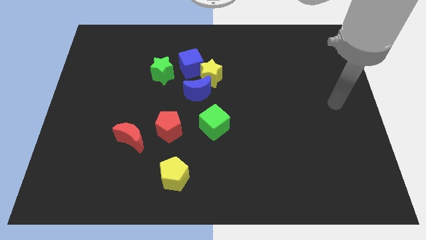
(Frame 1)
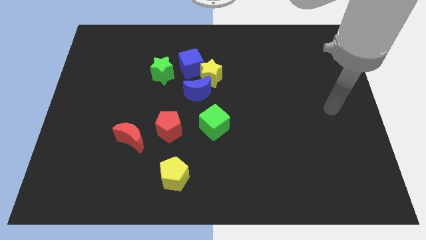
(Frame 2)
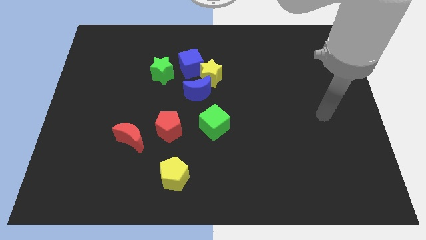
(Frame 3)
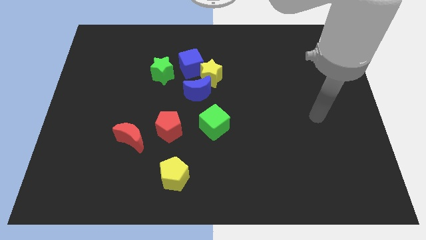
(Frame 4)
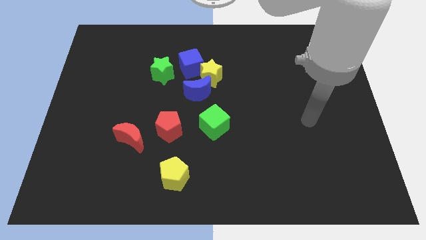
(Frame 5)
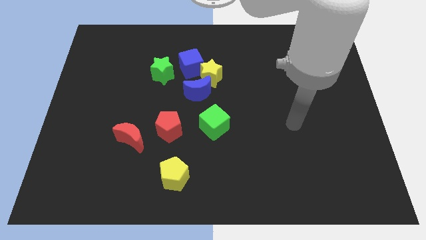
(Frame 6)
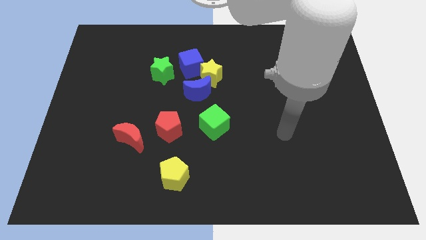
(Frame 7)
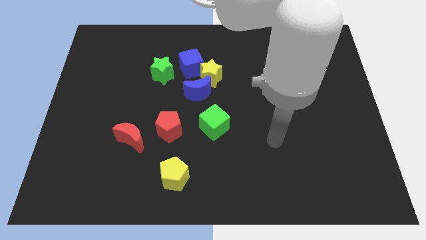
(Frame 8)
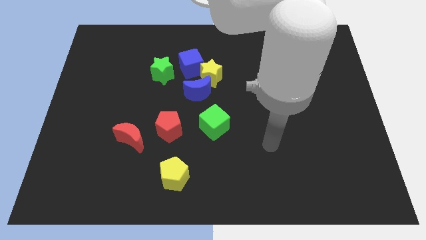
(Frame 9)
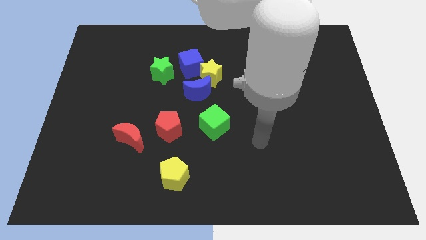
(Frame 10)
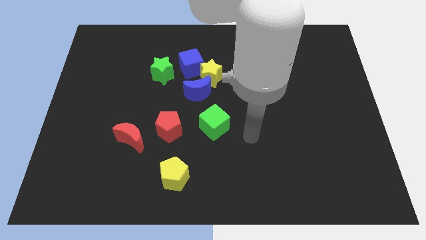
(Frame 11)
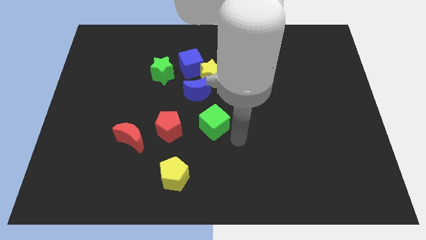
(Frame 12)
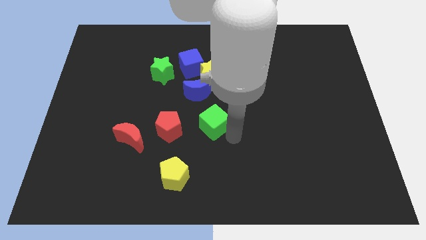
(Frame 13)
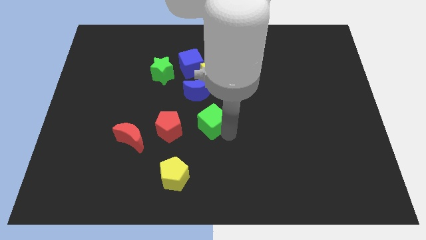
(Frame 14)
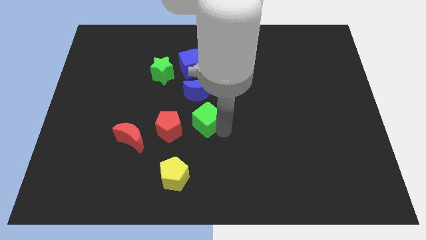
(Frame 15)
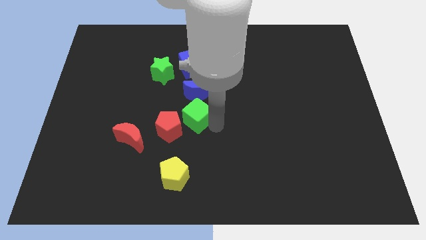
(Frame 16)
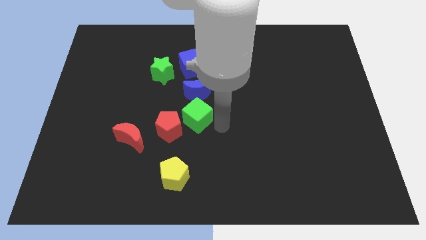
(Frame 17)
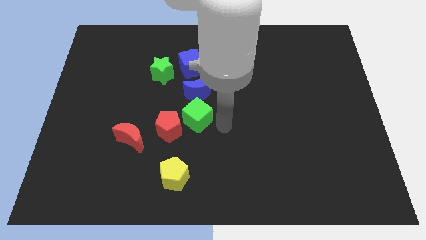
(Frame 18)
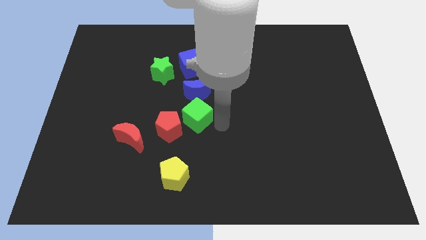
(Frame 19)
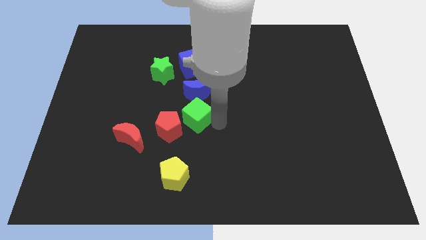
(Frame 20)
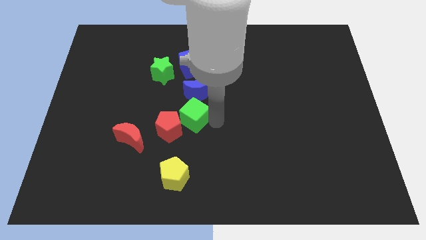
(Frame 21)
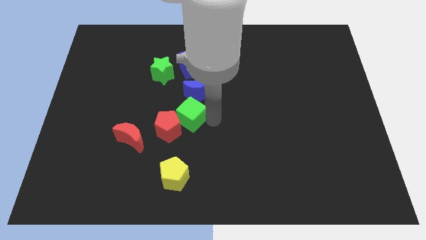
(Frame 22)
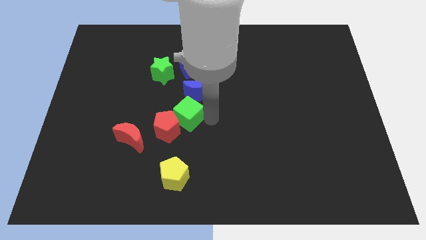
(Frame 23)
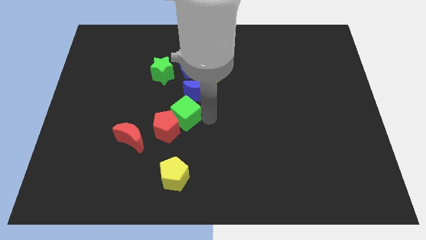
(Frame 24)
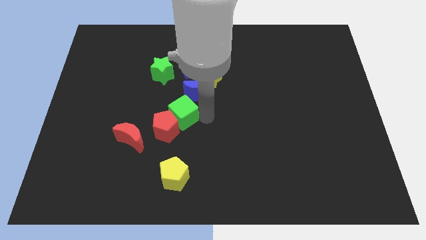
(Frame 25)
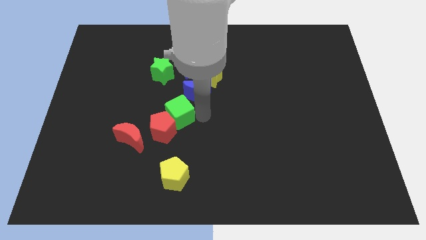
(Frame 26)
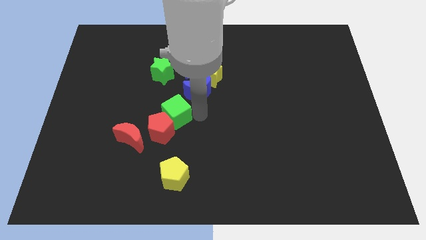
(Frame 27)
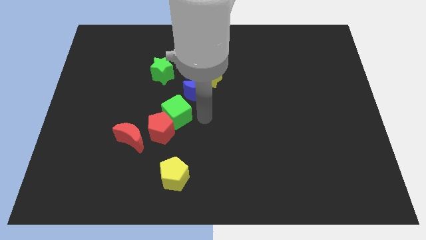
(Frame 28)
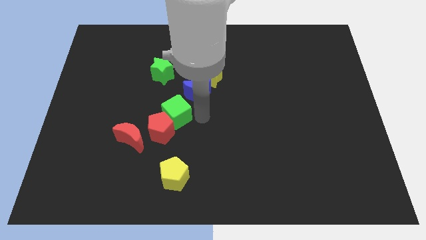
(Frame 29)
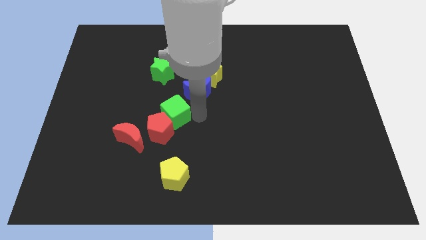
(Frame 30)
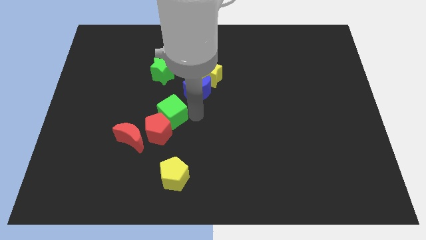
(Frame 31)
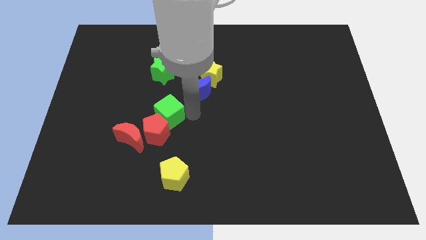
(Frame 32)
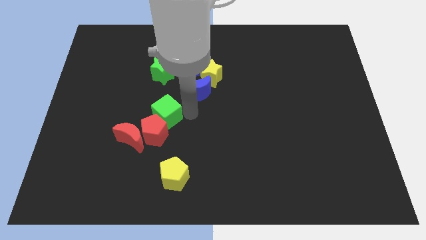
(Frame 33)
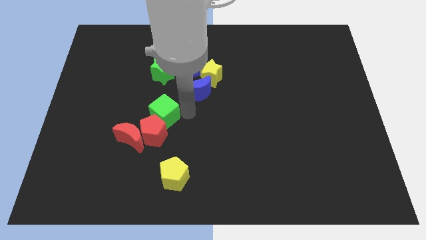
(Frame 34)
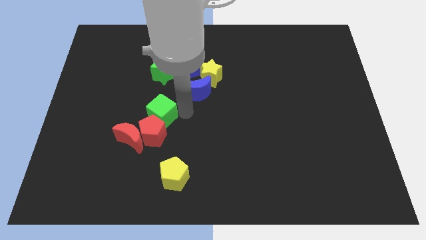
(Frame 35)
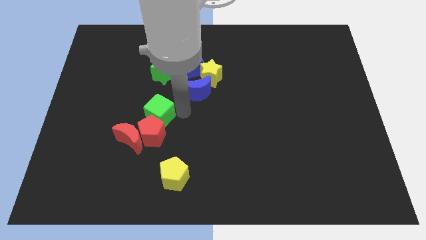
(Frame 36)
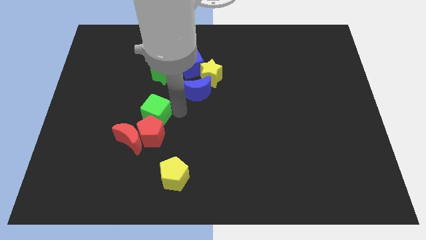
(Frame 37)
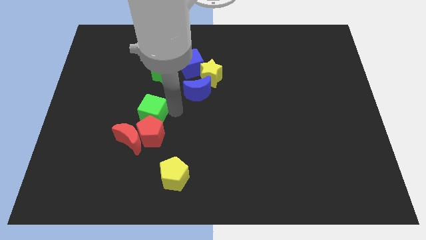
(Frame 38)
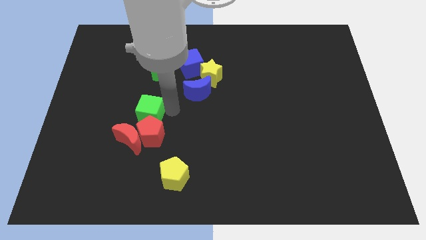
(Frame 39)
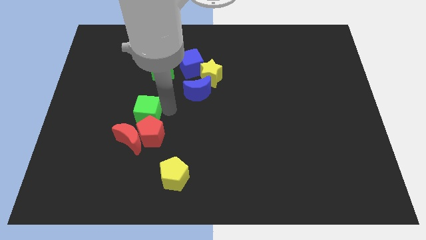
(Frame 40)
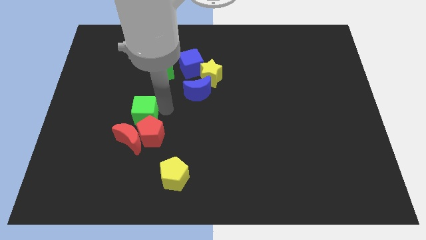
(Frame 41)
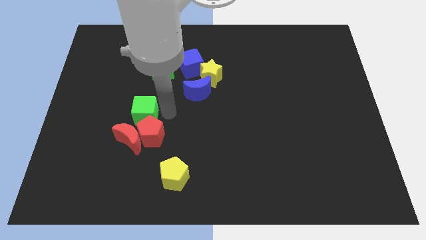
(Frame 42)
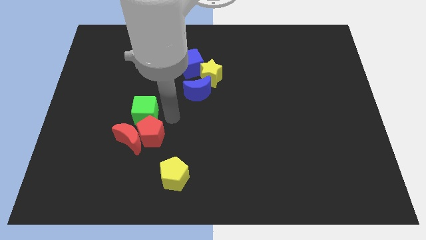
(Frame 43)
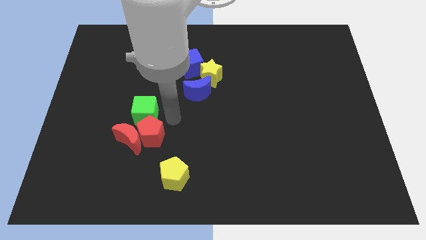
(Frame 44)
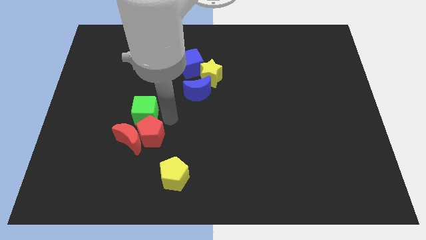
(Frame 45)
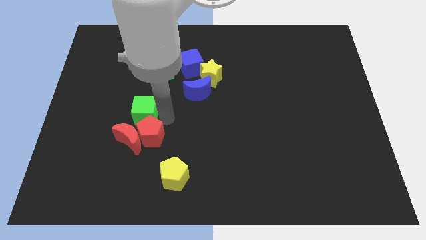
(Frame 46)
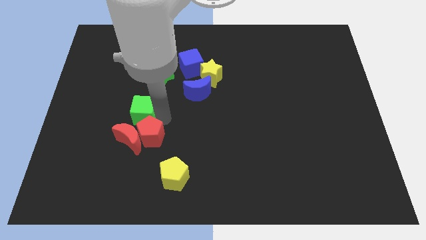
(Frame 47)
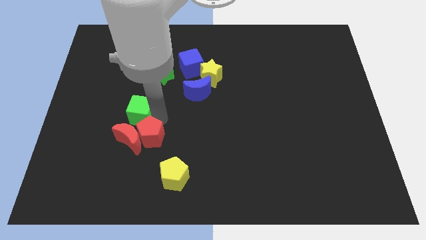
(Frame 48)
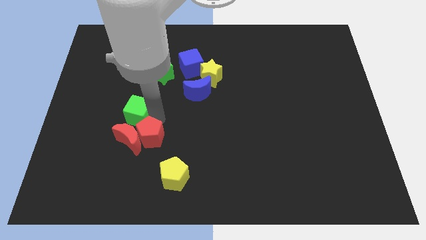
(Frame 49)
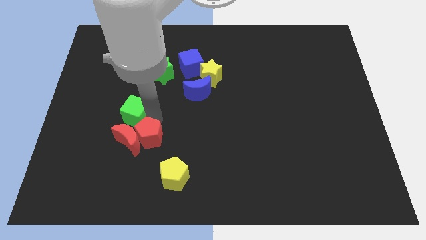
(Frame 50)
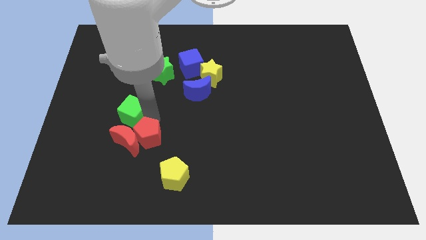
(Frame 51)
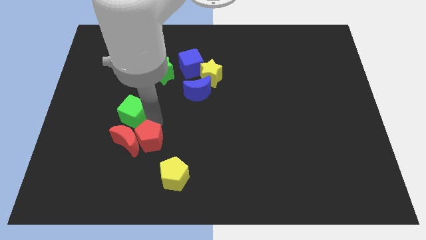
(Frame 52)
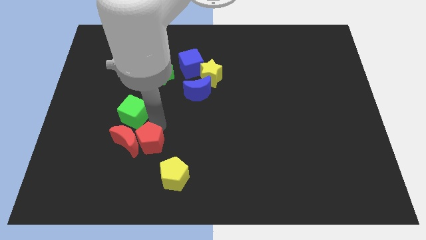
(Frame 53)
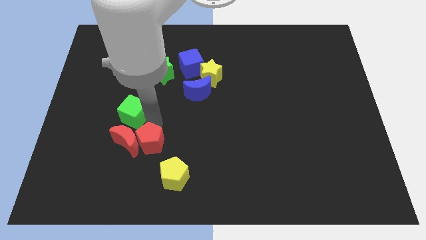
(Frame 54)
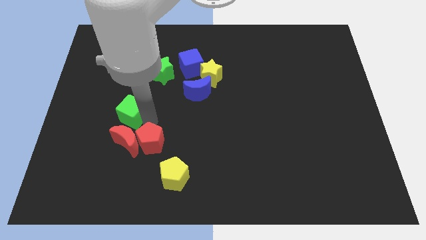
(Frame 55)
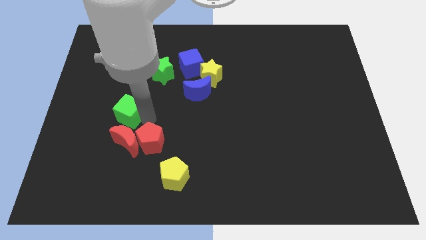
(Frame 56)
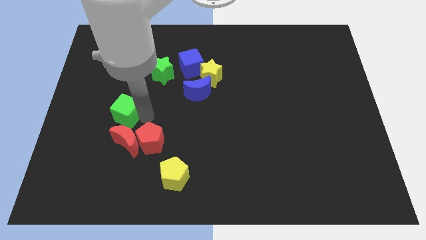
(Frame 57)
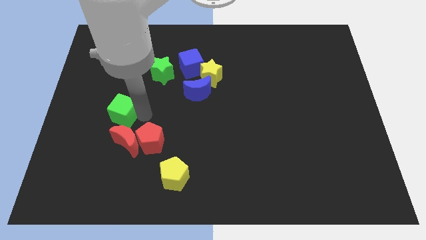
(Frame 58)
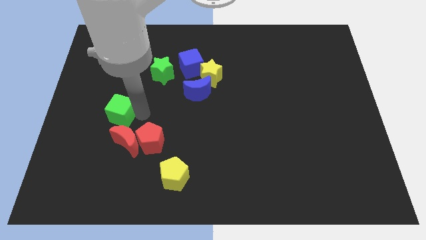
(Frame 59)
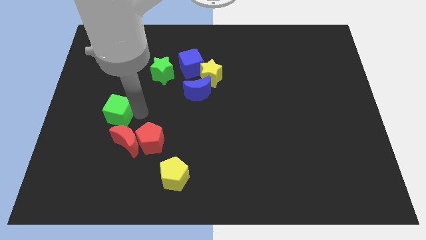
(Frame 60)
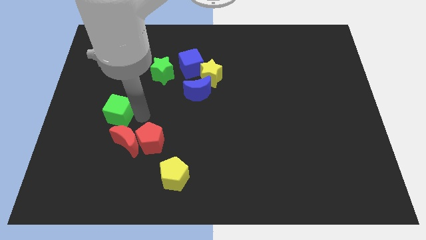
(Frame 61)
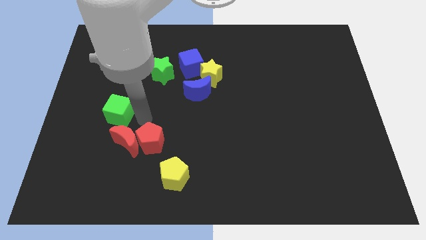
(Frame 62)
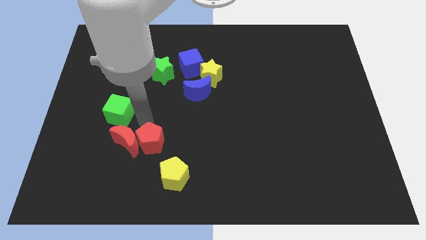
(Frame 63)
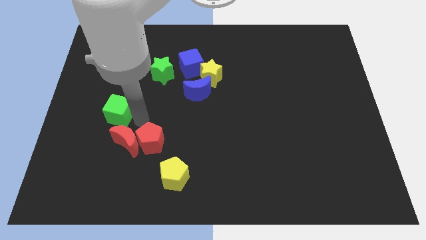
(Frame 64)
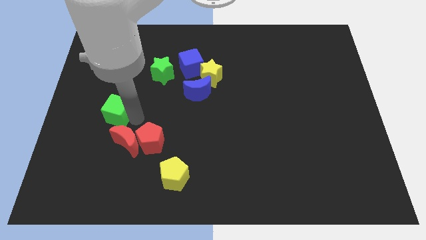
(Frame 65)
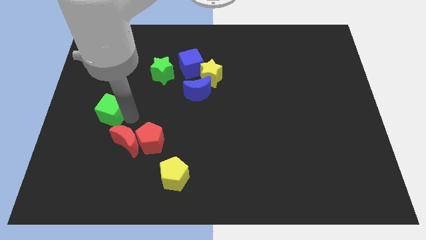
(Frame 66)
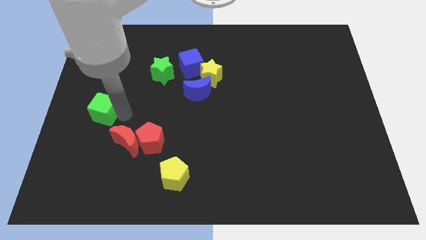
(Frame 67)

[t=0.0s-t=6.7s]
slide the green cube to the left side
